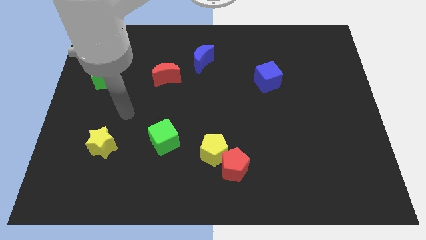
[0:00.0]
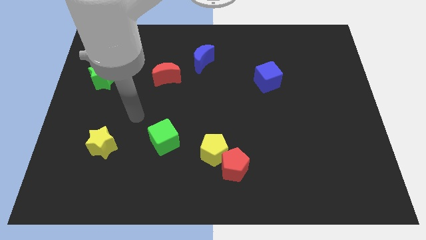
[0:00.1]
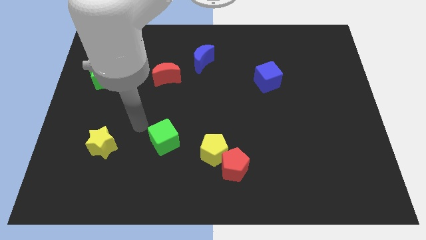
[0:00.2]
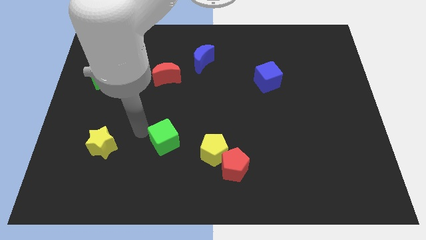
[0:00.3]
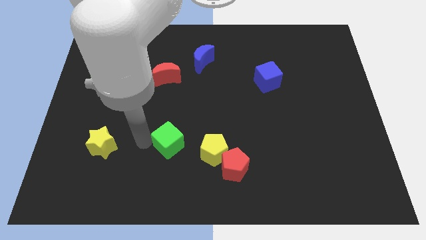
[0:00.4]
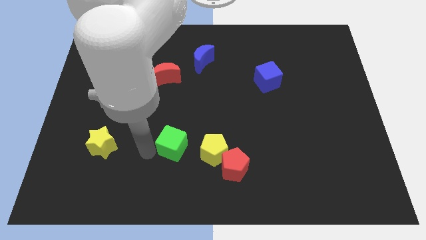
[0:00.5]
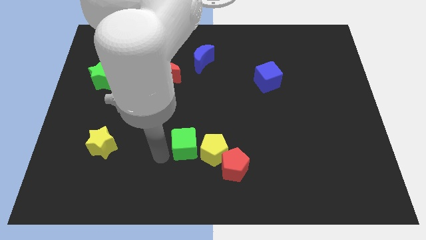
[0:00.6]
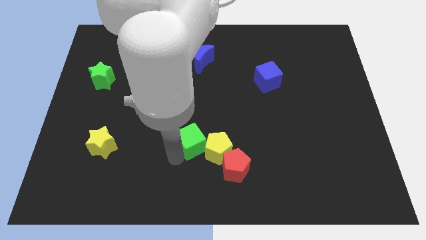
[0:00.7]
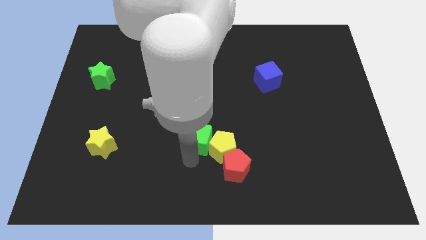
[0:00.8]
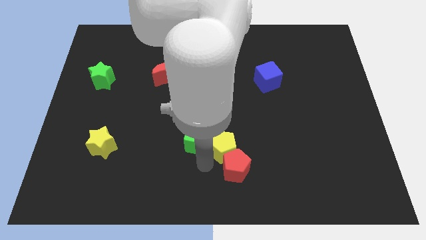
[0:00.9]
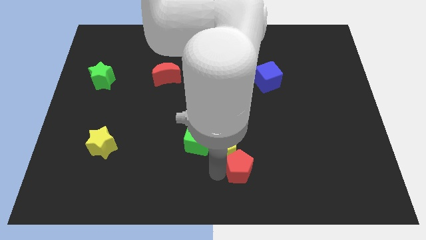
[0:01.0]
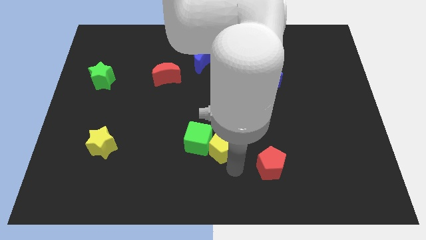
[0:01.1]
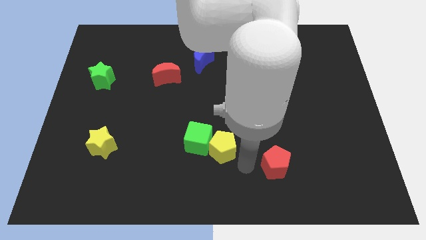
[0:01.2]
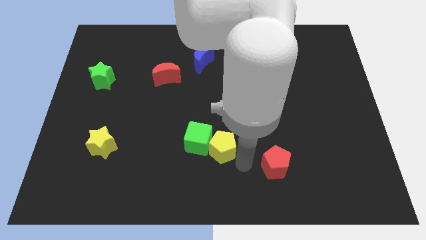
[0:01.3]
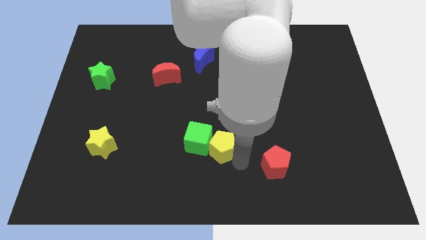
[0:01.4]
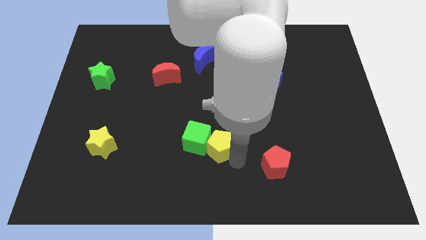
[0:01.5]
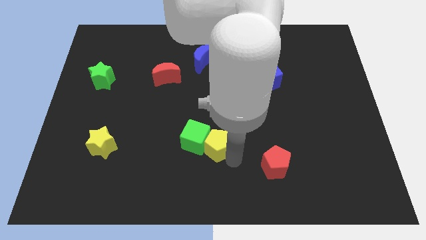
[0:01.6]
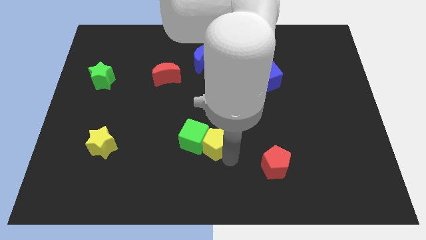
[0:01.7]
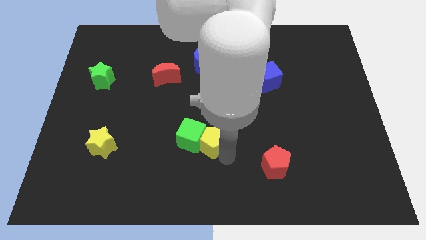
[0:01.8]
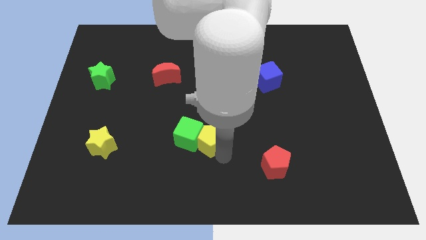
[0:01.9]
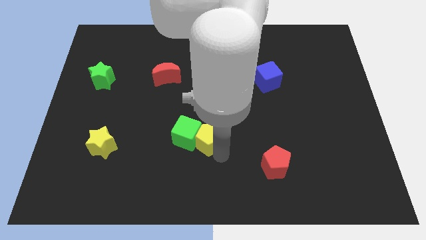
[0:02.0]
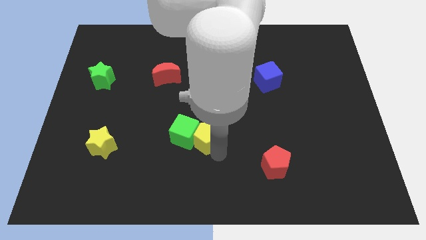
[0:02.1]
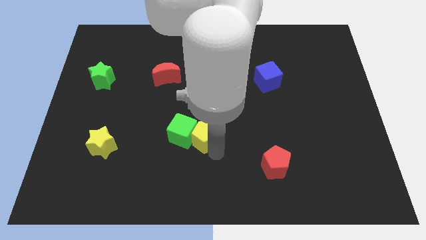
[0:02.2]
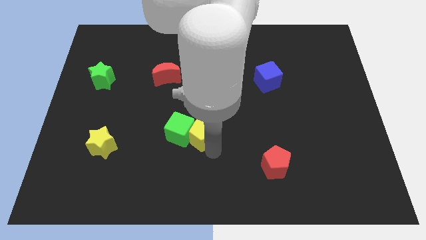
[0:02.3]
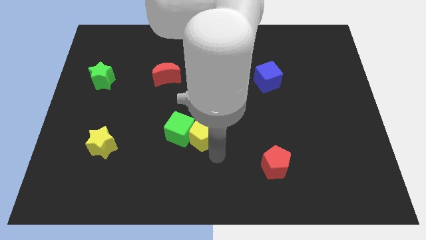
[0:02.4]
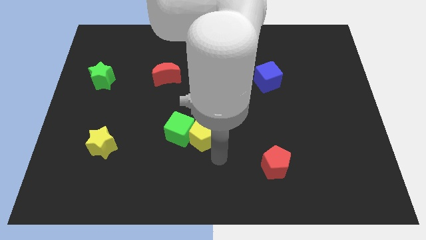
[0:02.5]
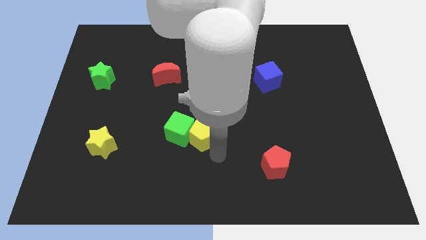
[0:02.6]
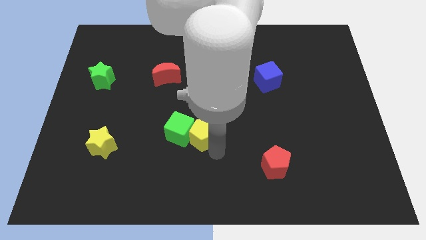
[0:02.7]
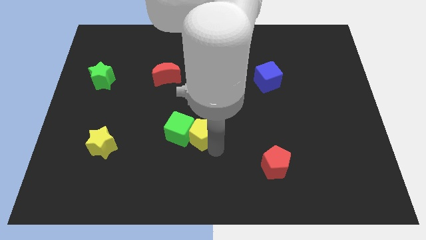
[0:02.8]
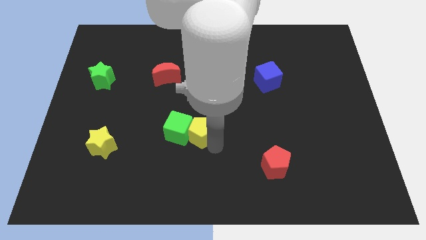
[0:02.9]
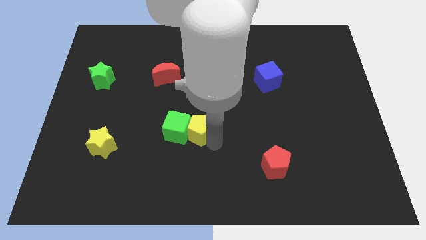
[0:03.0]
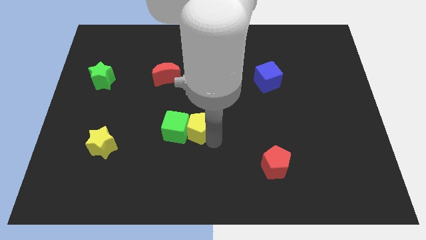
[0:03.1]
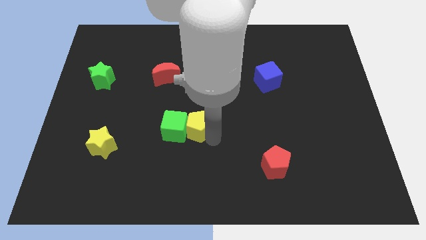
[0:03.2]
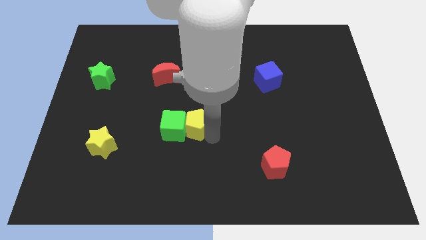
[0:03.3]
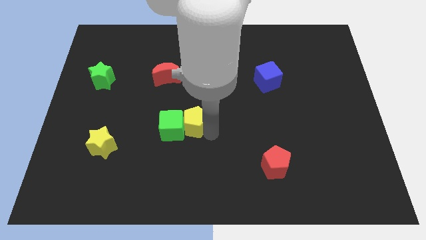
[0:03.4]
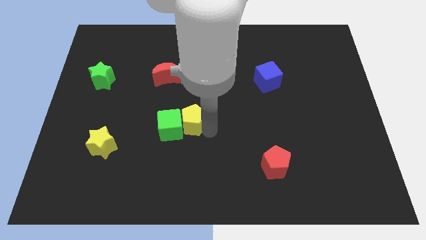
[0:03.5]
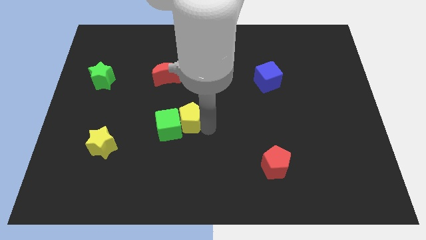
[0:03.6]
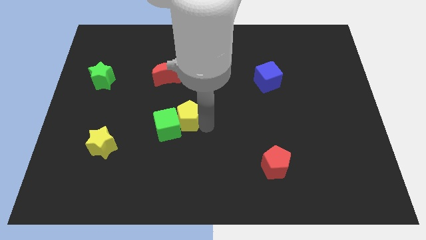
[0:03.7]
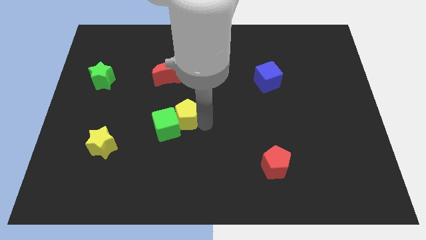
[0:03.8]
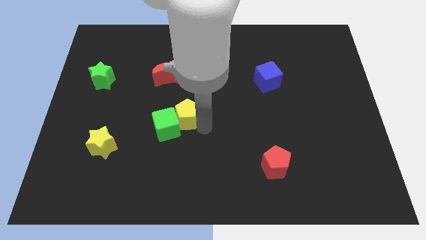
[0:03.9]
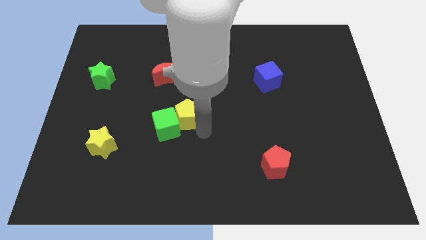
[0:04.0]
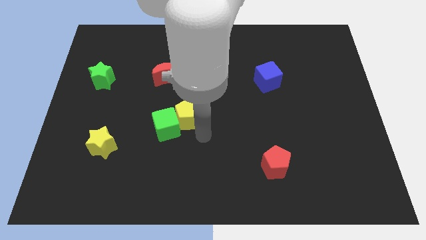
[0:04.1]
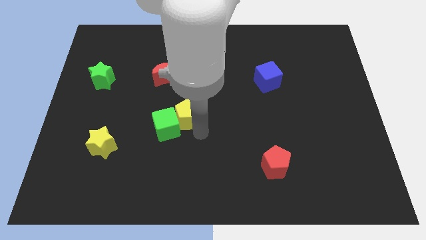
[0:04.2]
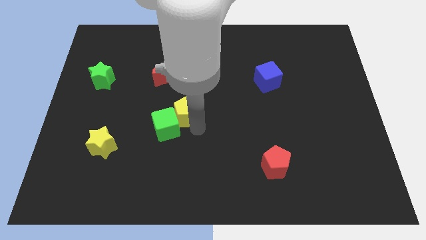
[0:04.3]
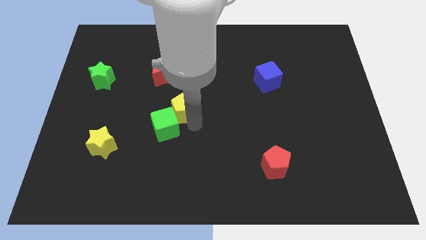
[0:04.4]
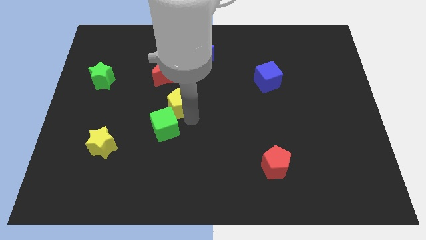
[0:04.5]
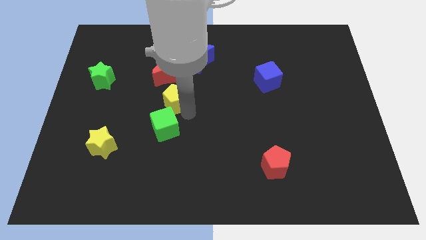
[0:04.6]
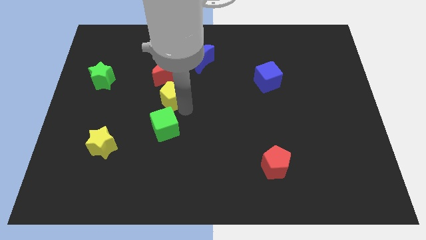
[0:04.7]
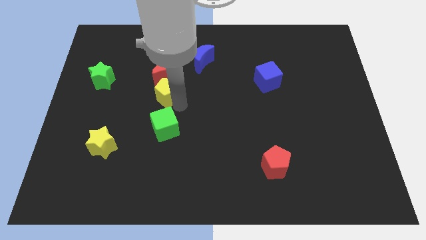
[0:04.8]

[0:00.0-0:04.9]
push the yellow pentagon close to the red moon

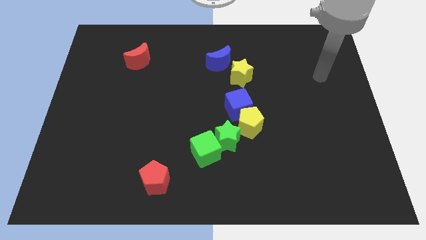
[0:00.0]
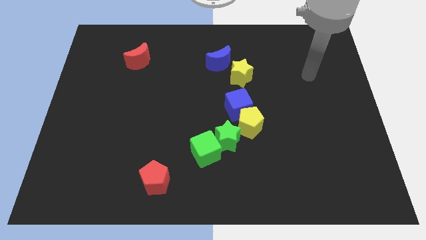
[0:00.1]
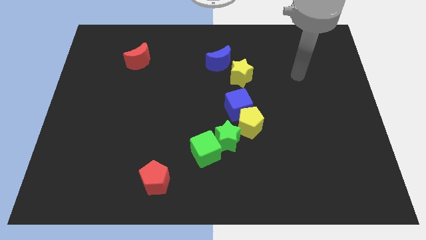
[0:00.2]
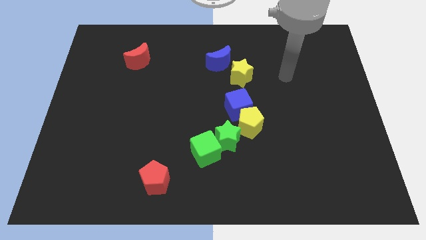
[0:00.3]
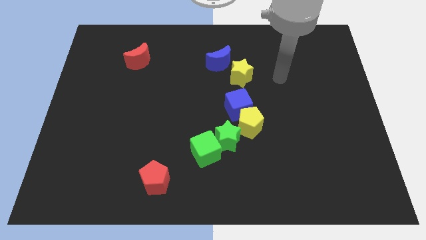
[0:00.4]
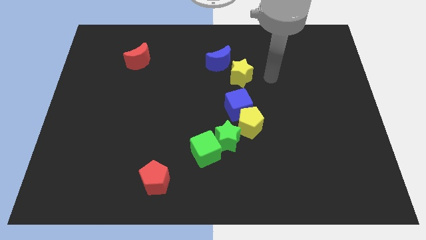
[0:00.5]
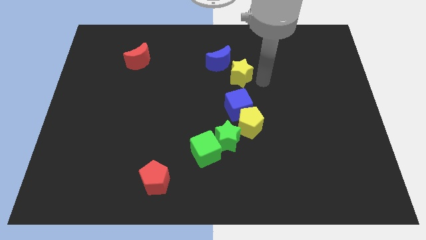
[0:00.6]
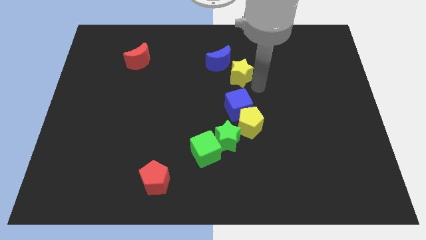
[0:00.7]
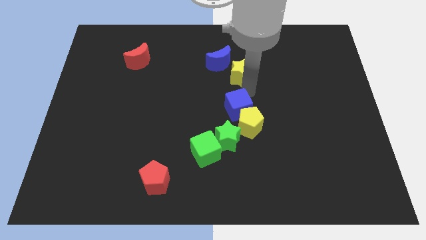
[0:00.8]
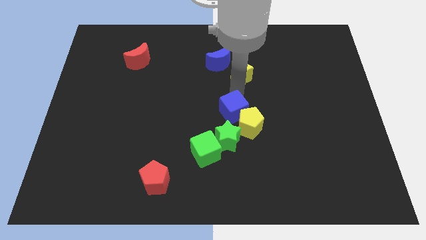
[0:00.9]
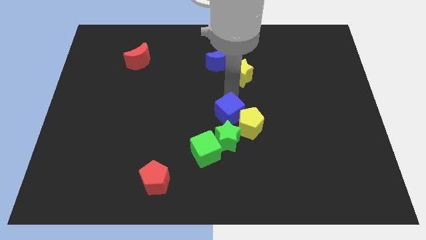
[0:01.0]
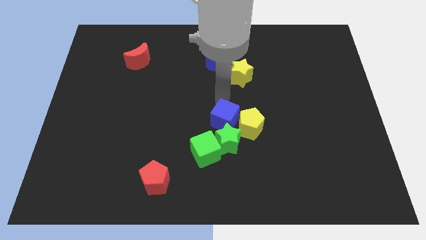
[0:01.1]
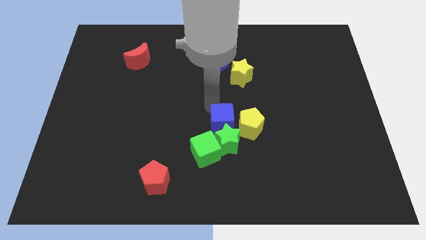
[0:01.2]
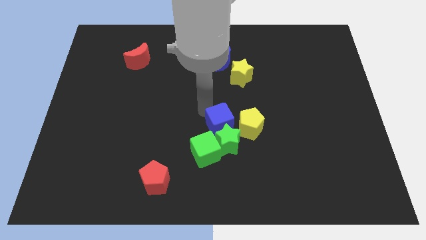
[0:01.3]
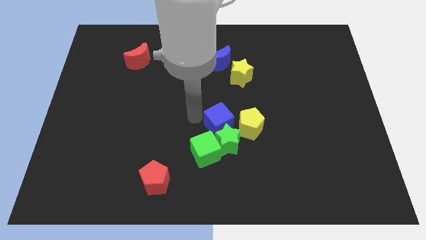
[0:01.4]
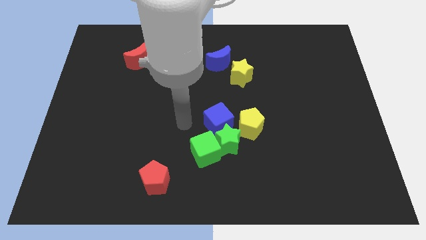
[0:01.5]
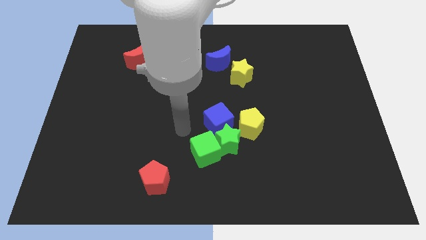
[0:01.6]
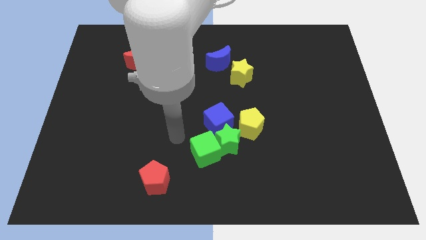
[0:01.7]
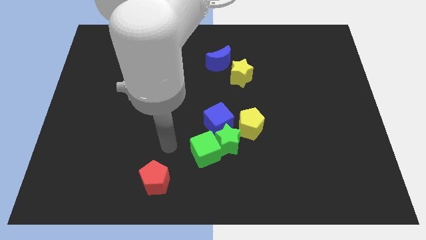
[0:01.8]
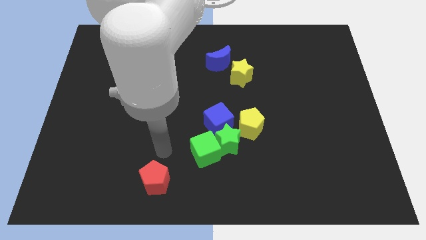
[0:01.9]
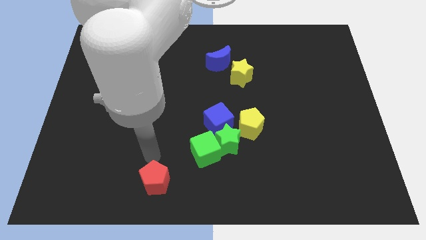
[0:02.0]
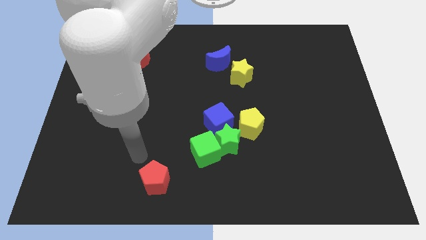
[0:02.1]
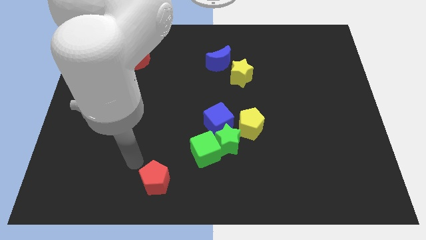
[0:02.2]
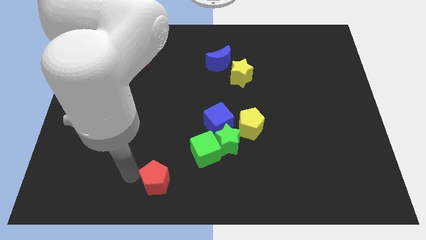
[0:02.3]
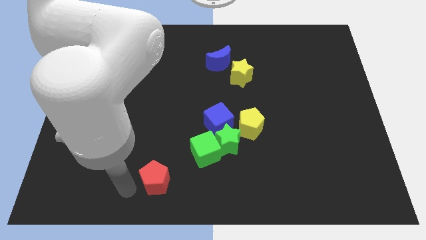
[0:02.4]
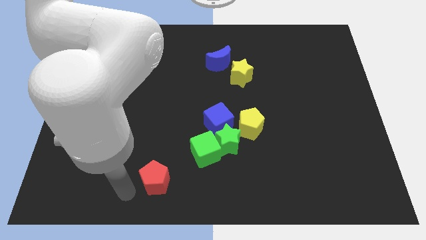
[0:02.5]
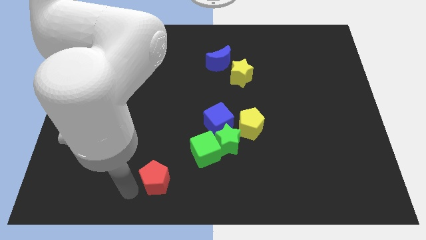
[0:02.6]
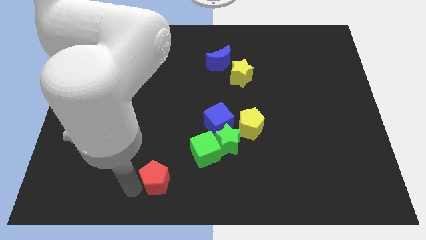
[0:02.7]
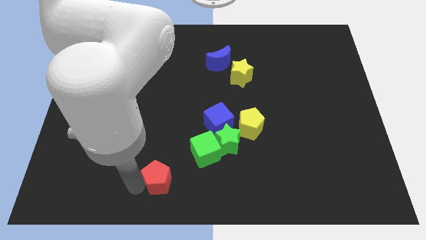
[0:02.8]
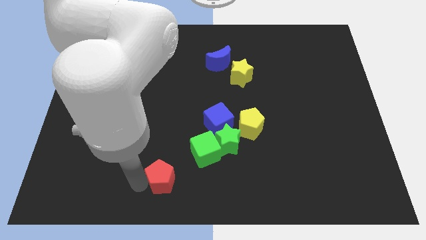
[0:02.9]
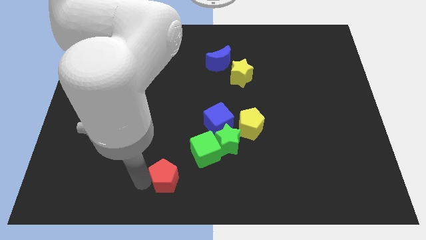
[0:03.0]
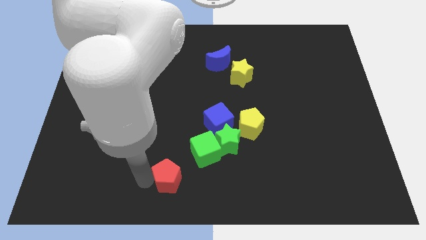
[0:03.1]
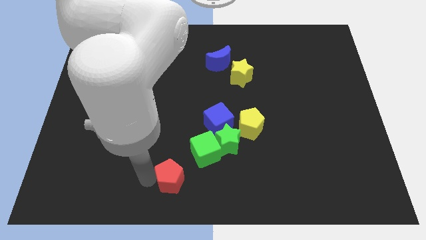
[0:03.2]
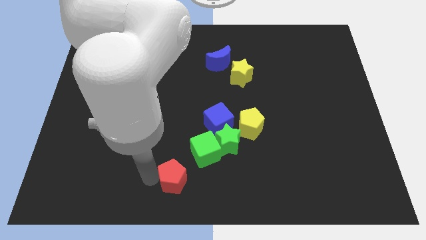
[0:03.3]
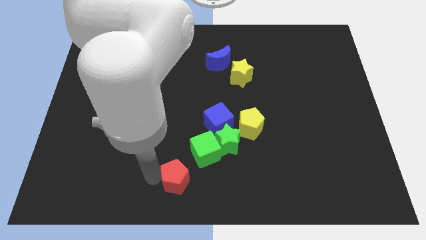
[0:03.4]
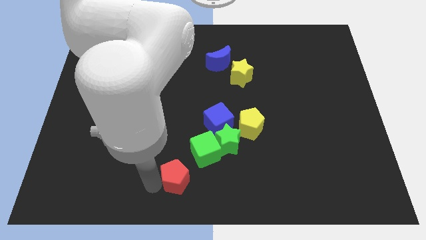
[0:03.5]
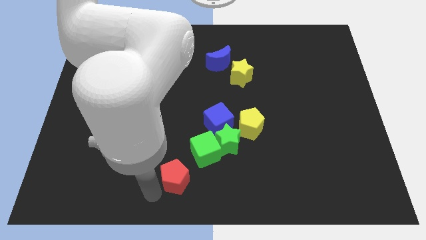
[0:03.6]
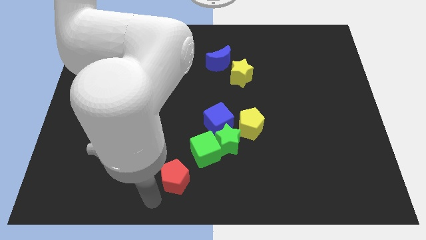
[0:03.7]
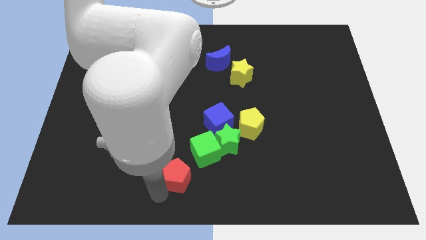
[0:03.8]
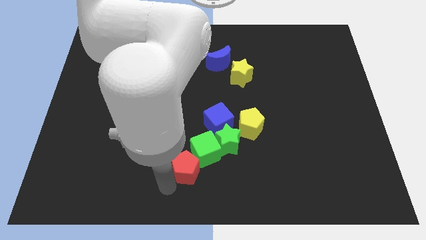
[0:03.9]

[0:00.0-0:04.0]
put the red pentagon close to the green cube
